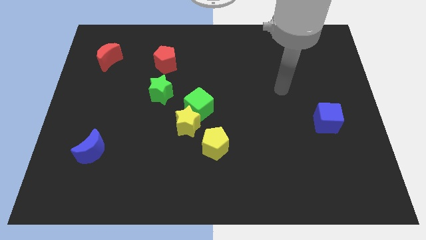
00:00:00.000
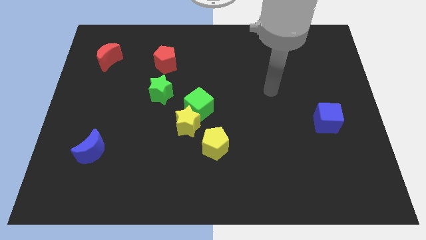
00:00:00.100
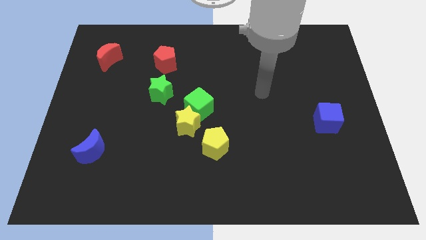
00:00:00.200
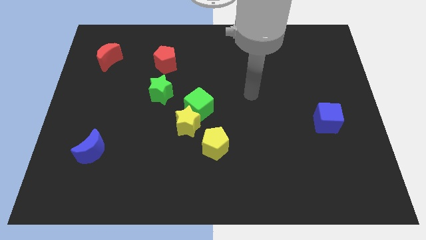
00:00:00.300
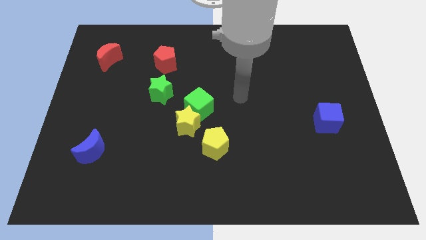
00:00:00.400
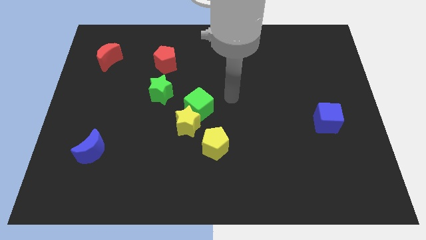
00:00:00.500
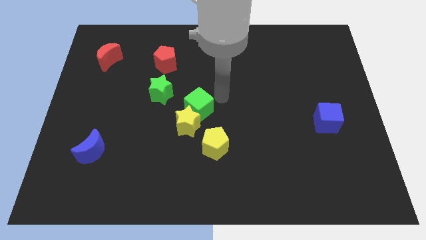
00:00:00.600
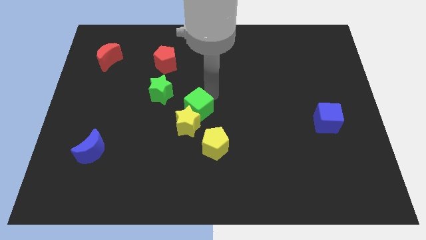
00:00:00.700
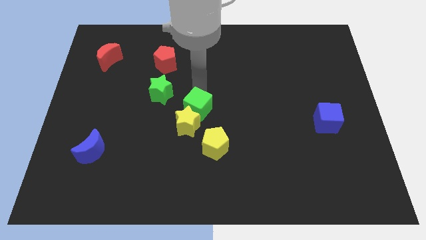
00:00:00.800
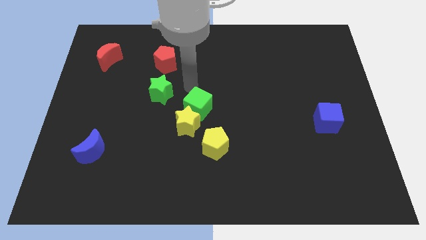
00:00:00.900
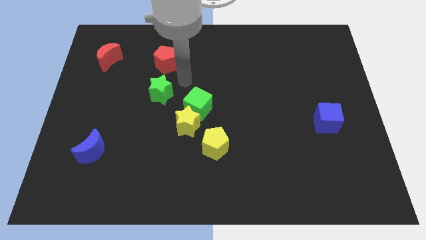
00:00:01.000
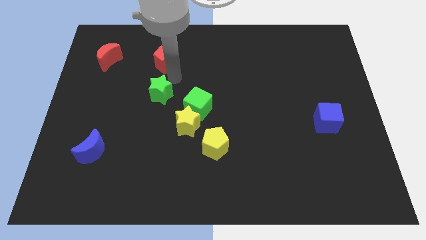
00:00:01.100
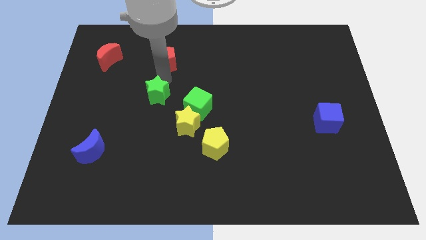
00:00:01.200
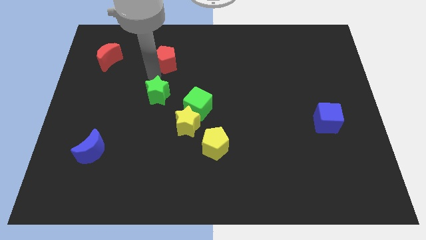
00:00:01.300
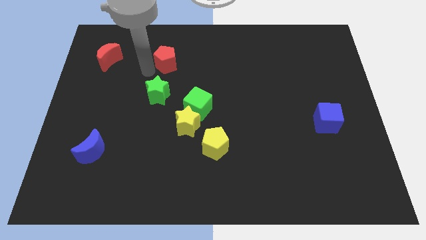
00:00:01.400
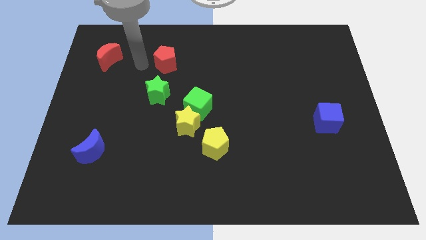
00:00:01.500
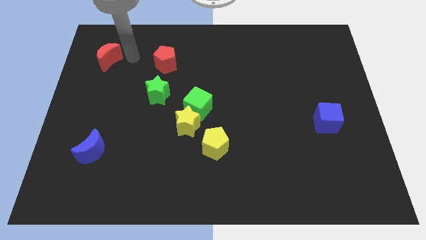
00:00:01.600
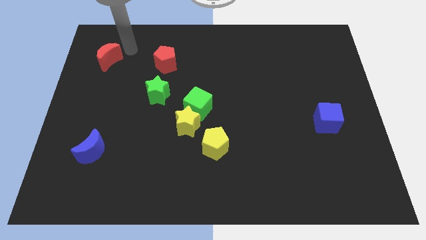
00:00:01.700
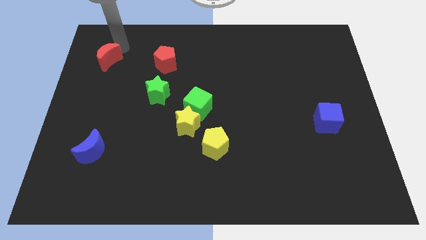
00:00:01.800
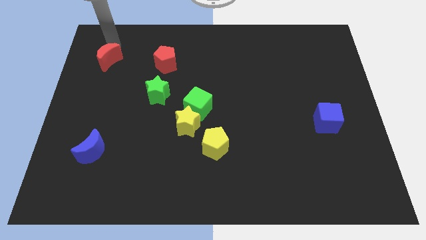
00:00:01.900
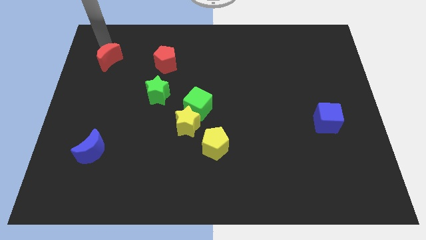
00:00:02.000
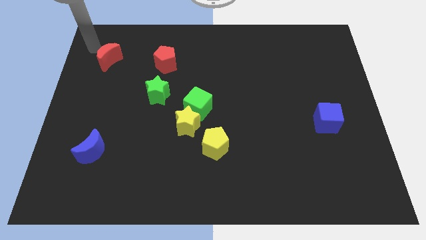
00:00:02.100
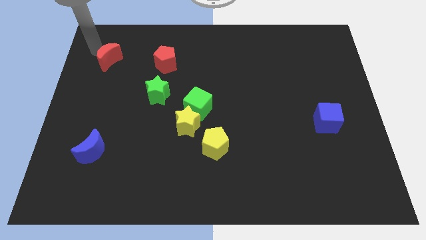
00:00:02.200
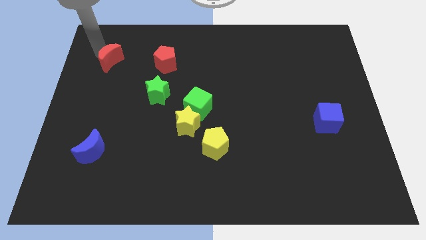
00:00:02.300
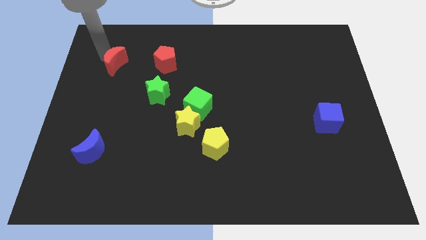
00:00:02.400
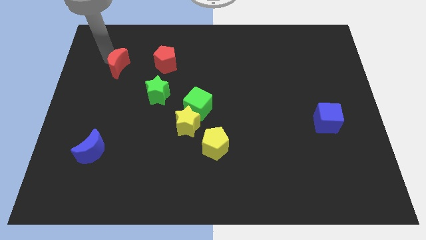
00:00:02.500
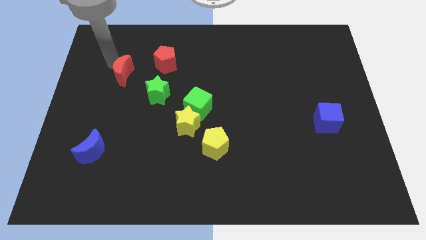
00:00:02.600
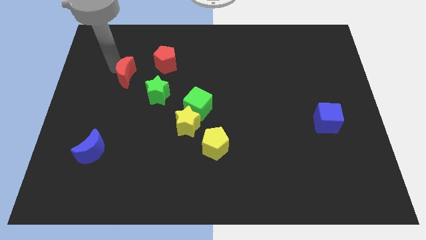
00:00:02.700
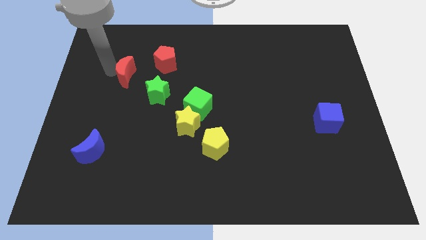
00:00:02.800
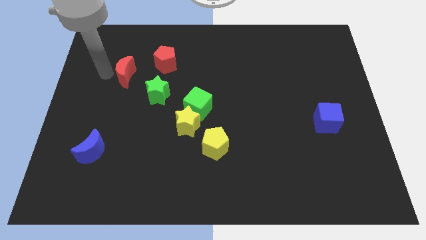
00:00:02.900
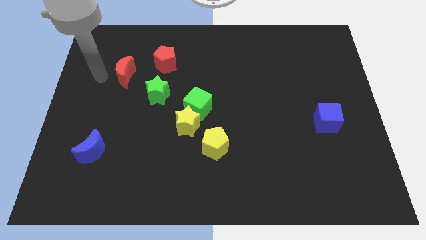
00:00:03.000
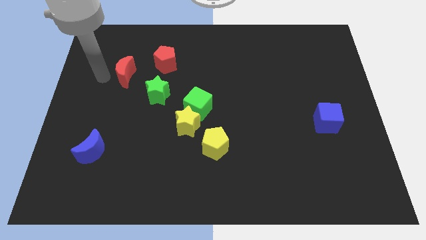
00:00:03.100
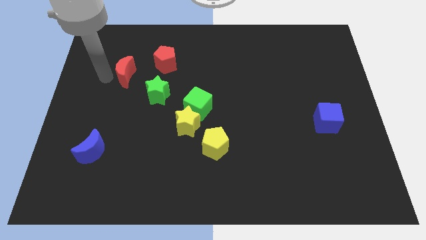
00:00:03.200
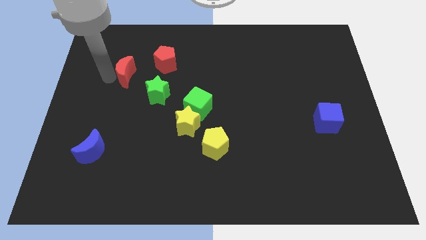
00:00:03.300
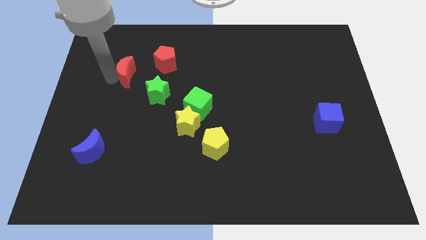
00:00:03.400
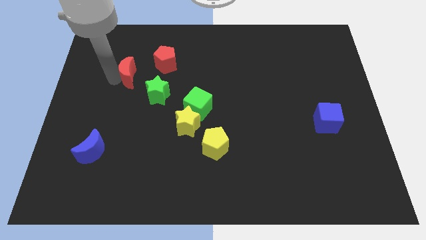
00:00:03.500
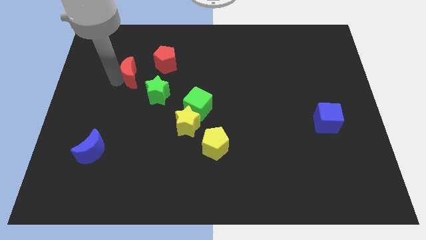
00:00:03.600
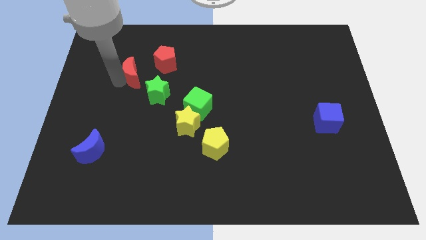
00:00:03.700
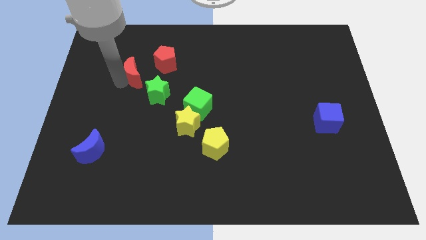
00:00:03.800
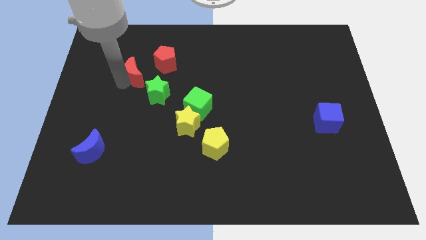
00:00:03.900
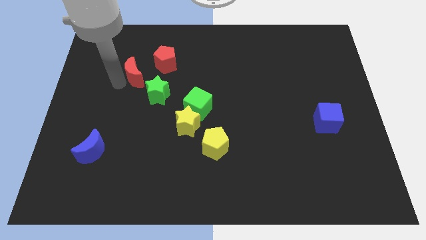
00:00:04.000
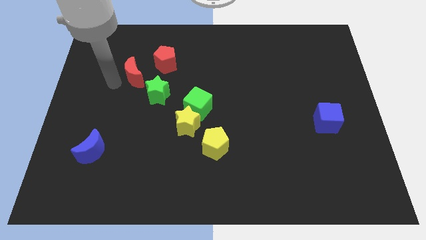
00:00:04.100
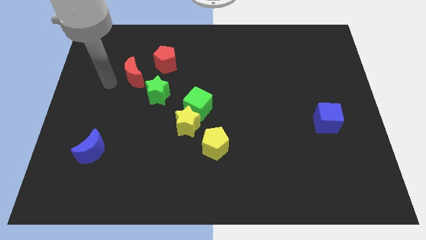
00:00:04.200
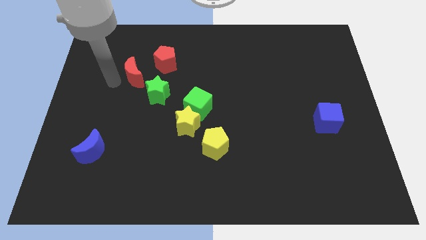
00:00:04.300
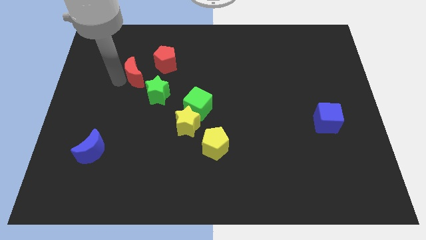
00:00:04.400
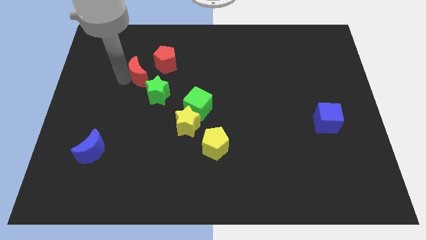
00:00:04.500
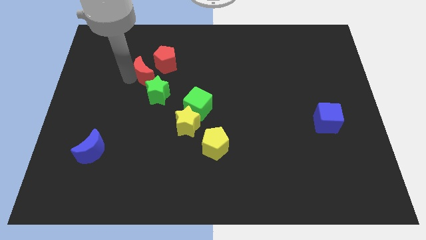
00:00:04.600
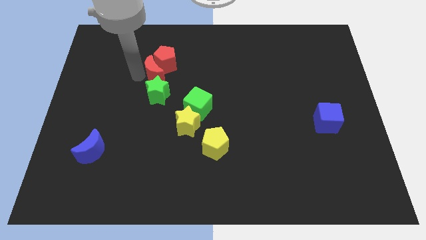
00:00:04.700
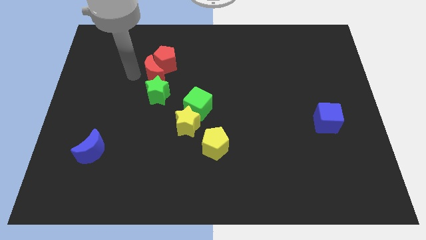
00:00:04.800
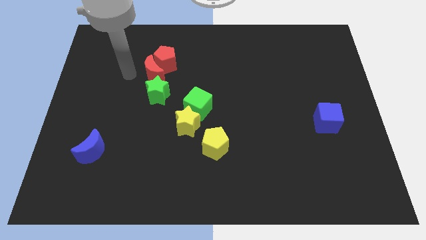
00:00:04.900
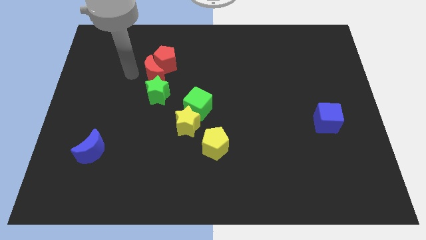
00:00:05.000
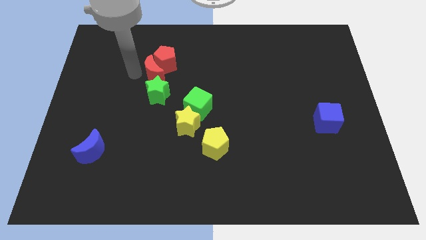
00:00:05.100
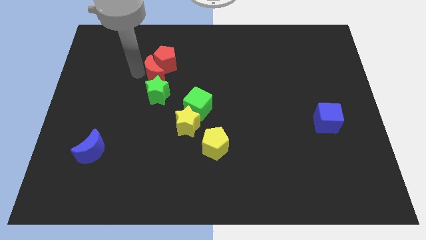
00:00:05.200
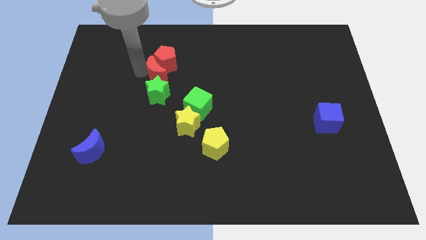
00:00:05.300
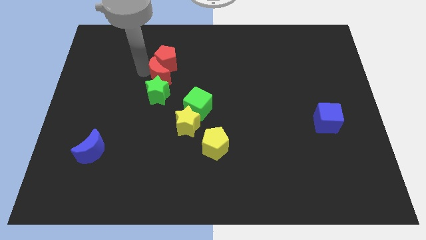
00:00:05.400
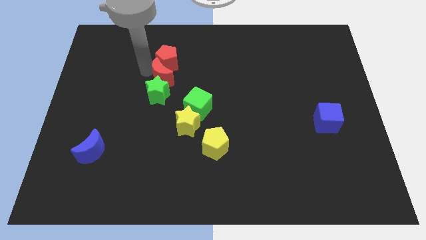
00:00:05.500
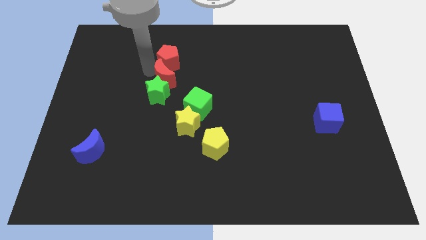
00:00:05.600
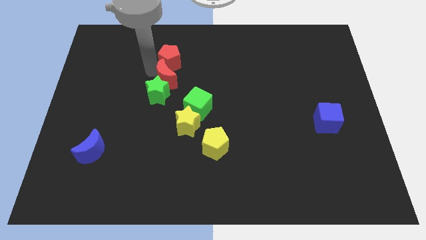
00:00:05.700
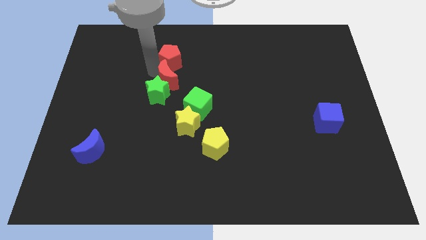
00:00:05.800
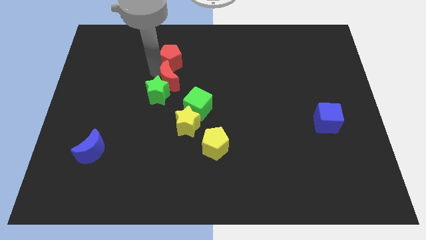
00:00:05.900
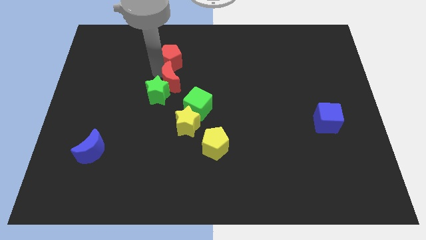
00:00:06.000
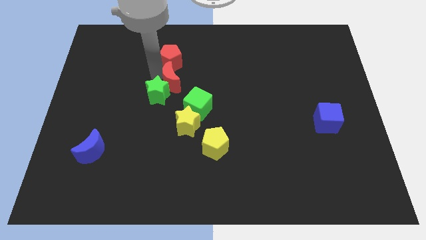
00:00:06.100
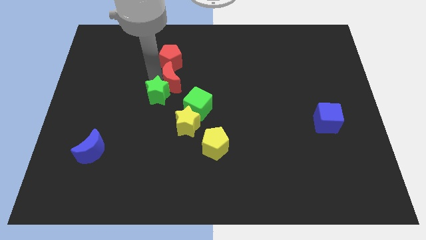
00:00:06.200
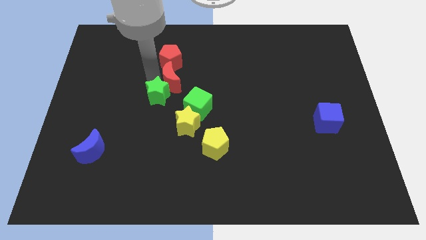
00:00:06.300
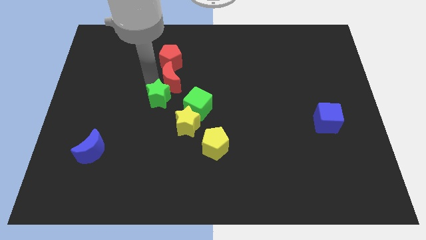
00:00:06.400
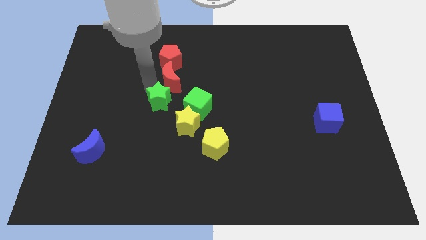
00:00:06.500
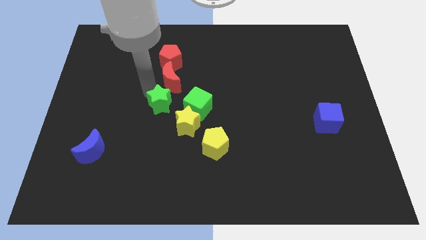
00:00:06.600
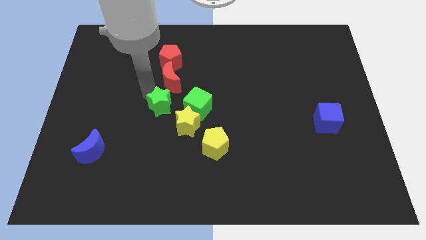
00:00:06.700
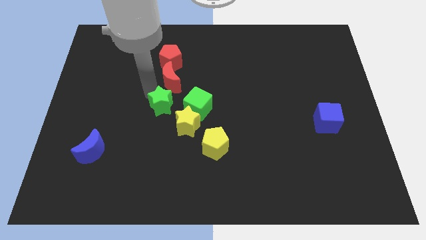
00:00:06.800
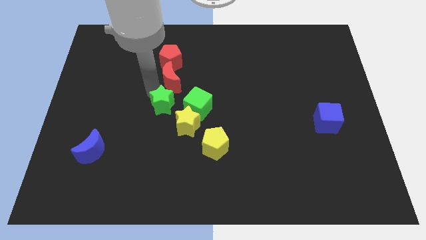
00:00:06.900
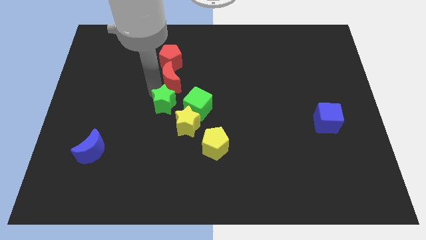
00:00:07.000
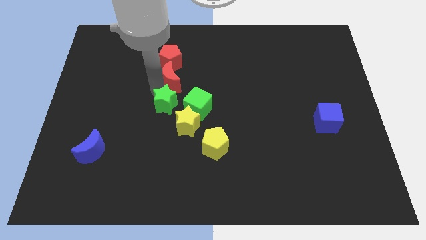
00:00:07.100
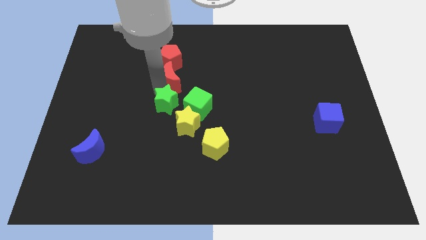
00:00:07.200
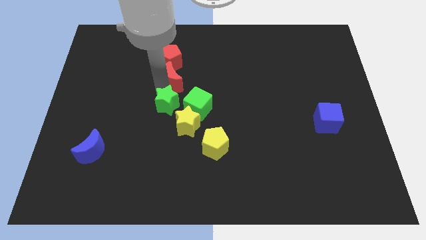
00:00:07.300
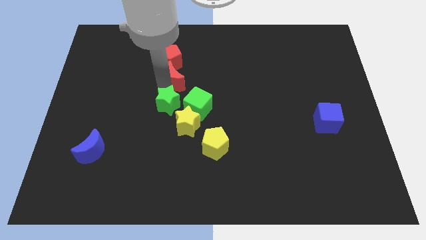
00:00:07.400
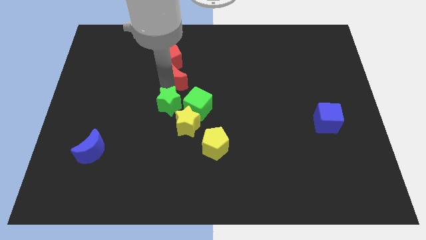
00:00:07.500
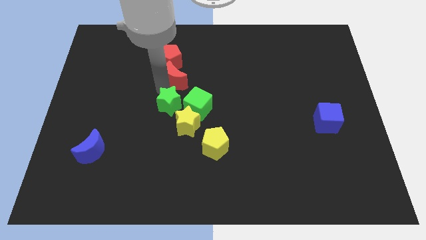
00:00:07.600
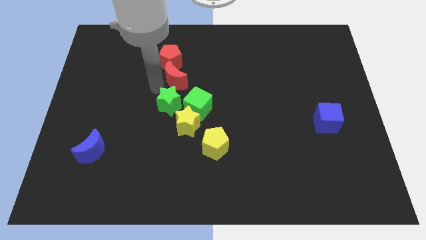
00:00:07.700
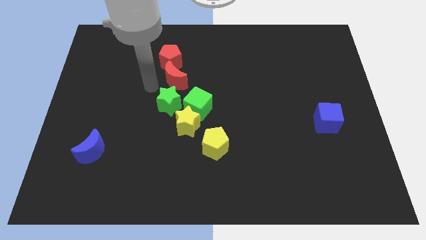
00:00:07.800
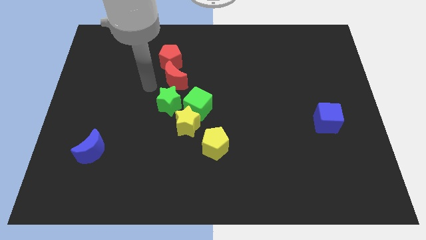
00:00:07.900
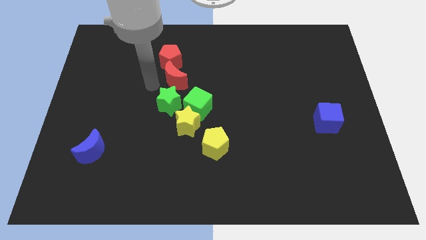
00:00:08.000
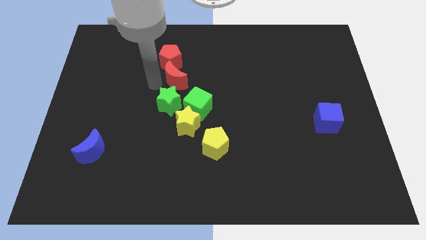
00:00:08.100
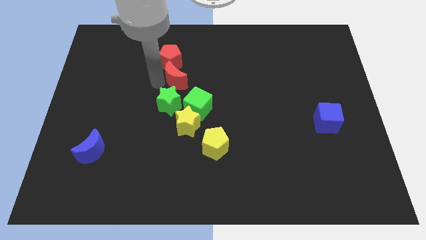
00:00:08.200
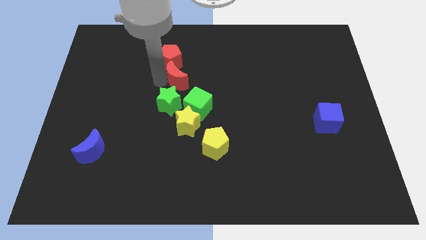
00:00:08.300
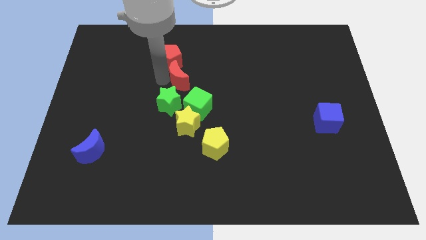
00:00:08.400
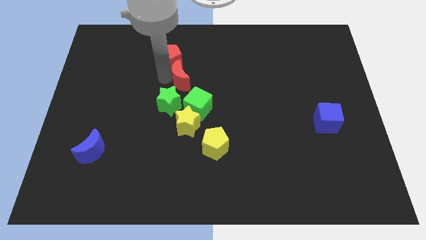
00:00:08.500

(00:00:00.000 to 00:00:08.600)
move the red moon above the green cube
